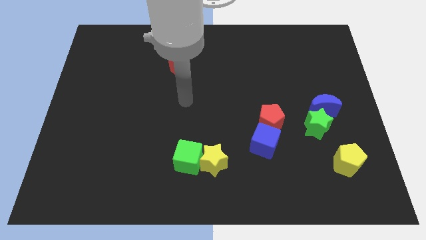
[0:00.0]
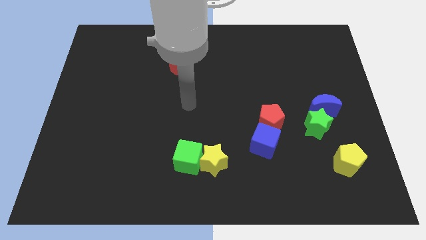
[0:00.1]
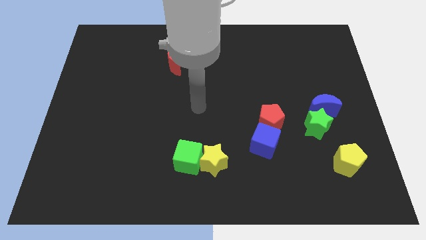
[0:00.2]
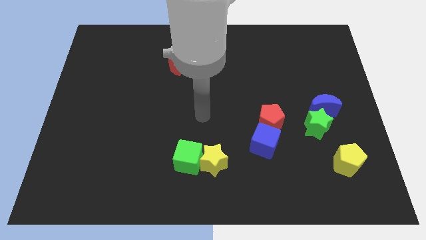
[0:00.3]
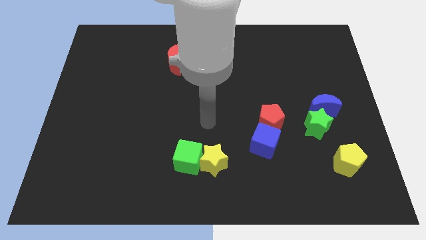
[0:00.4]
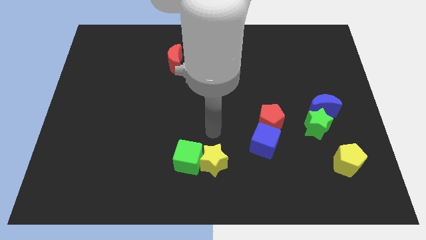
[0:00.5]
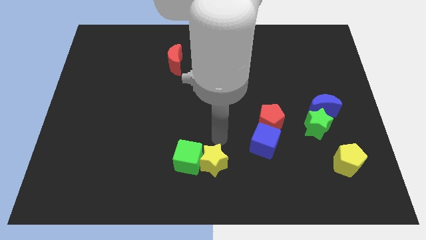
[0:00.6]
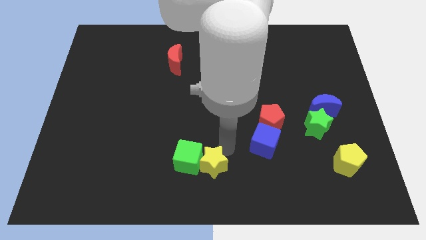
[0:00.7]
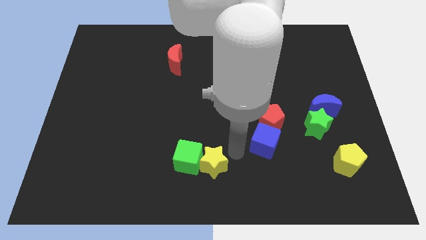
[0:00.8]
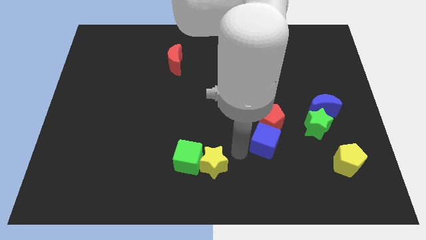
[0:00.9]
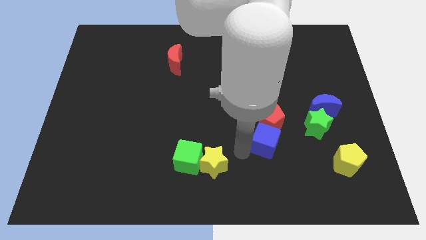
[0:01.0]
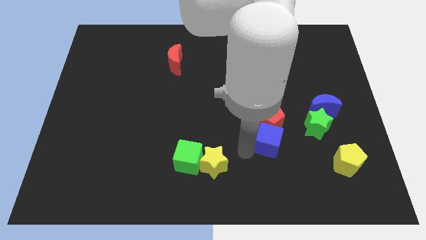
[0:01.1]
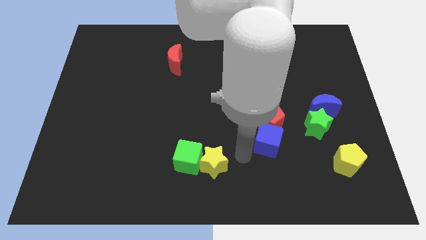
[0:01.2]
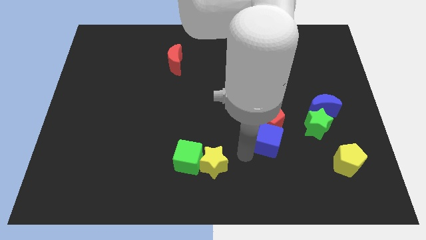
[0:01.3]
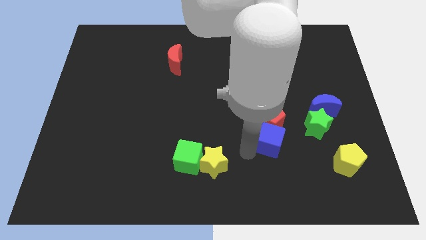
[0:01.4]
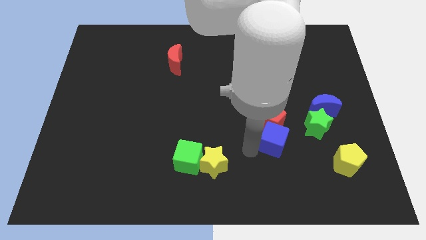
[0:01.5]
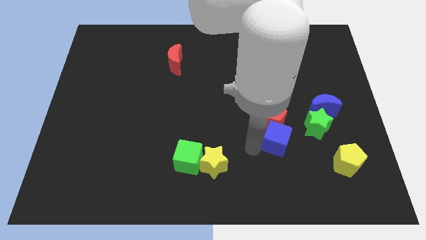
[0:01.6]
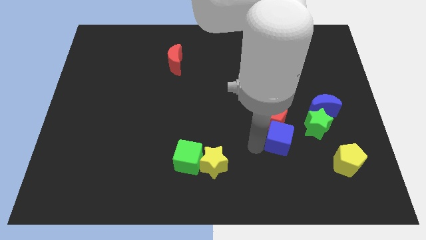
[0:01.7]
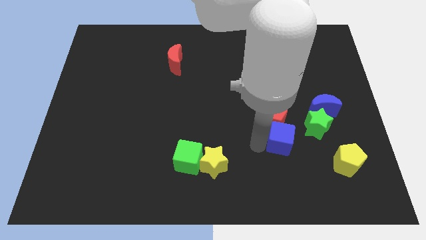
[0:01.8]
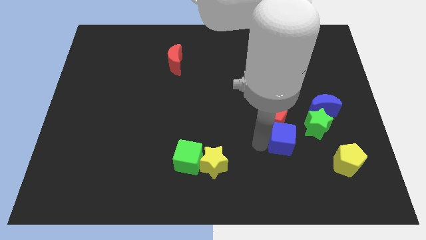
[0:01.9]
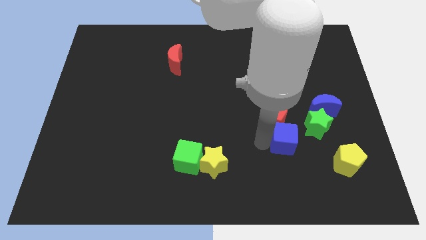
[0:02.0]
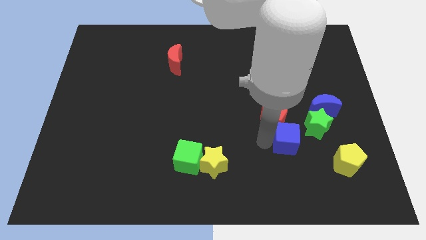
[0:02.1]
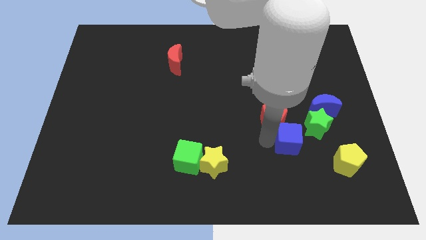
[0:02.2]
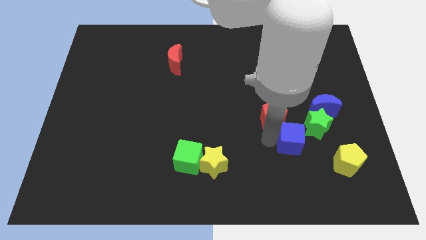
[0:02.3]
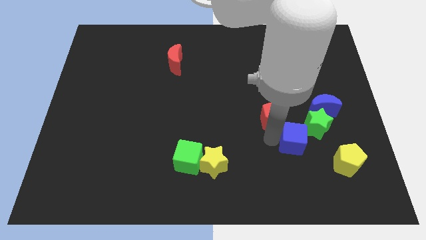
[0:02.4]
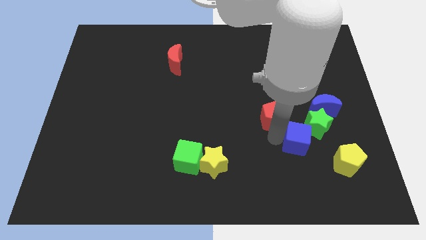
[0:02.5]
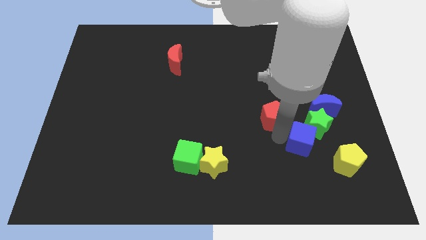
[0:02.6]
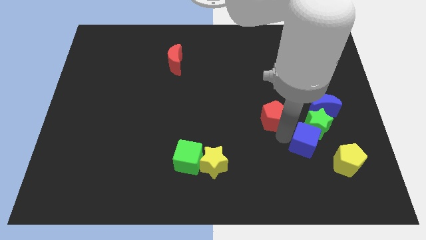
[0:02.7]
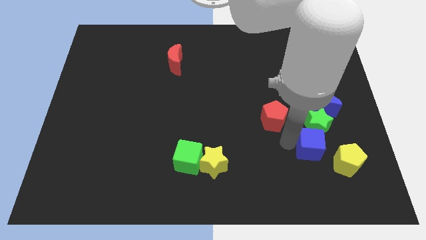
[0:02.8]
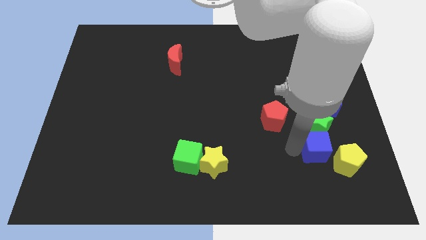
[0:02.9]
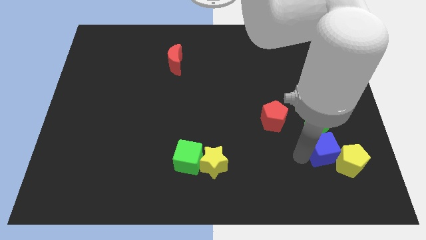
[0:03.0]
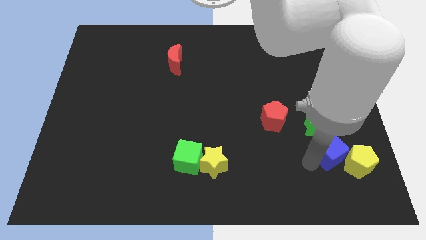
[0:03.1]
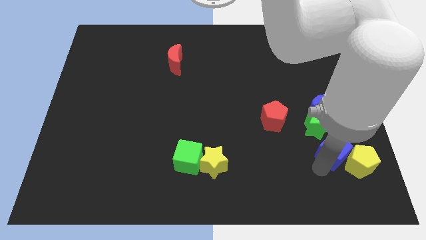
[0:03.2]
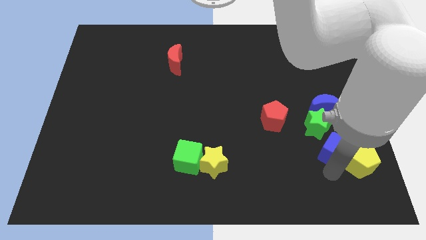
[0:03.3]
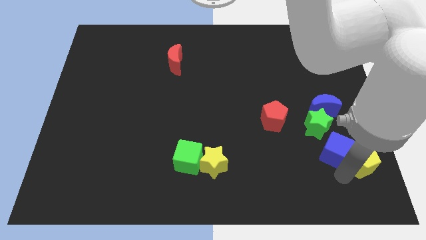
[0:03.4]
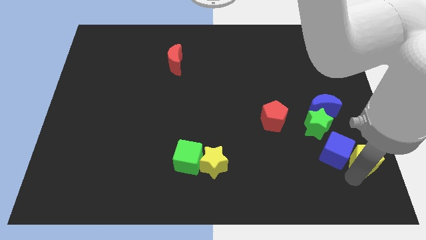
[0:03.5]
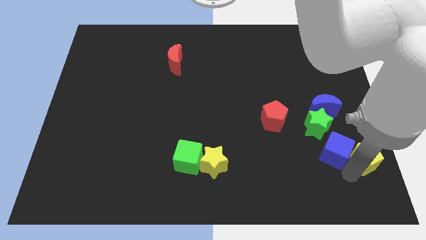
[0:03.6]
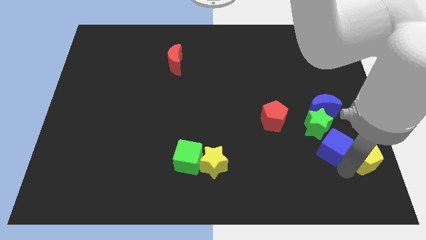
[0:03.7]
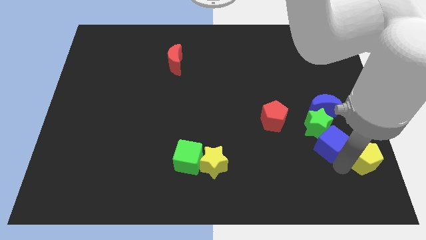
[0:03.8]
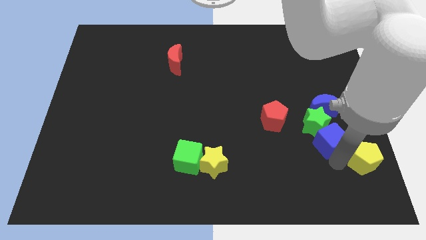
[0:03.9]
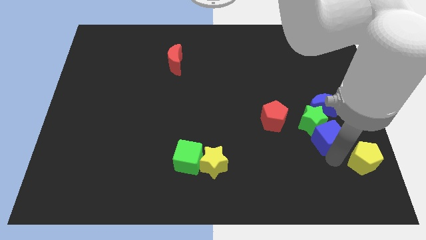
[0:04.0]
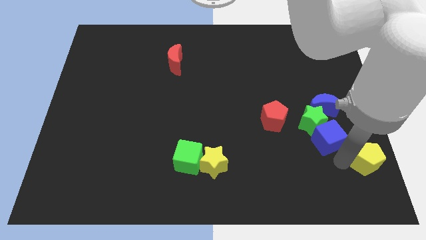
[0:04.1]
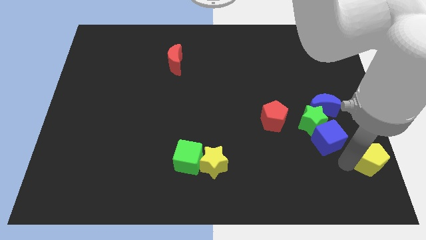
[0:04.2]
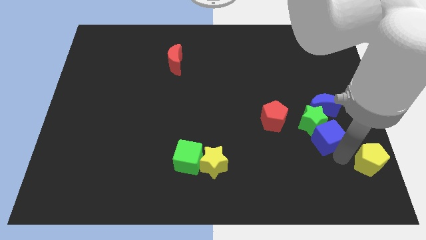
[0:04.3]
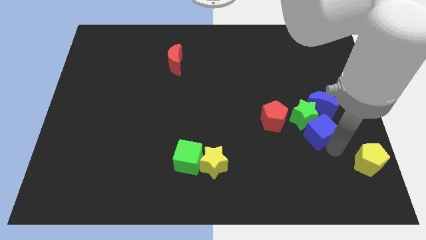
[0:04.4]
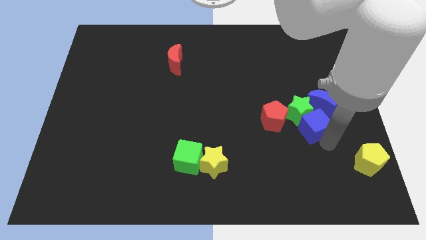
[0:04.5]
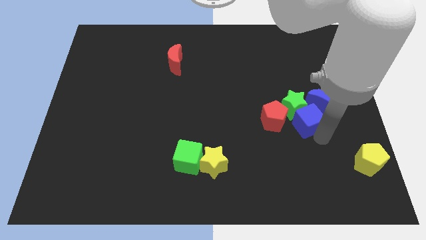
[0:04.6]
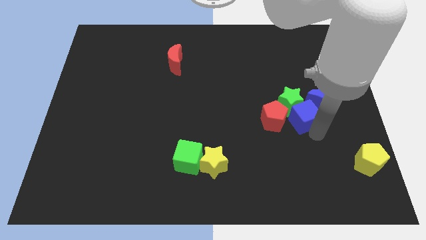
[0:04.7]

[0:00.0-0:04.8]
move the blue cube close to the blue moon

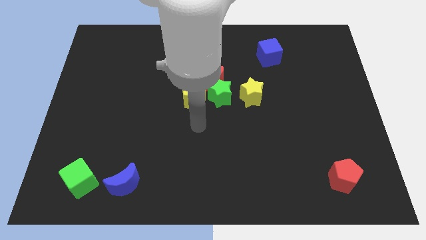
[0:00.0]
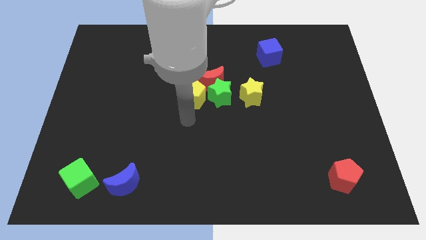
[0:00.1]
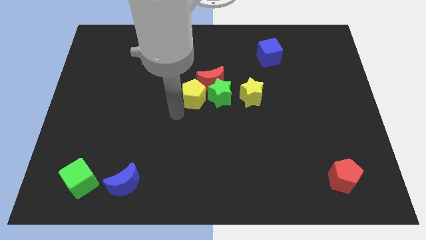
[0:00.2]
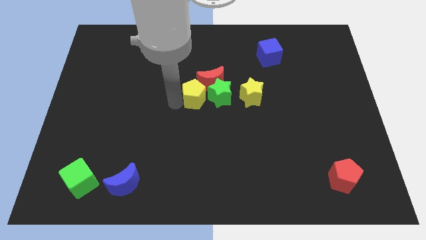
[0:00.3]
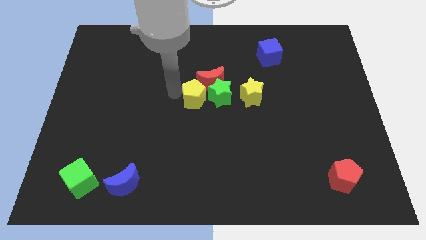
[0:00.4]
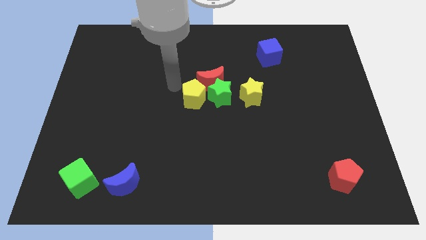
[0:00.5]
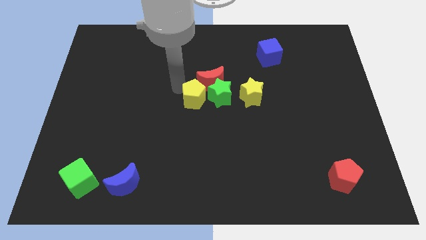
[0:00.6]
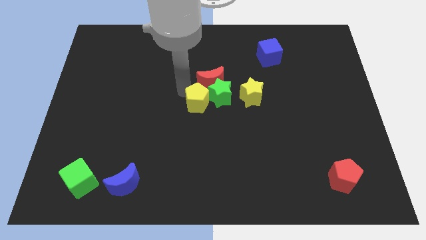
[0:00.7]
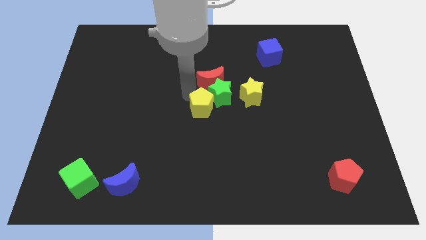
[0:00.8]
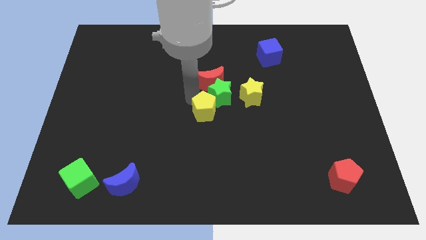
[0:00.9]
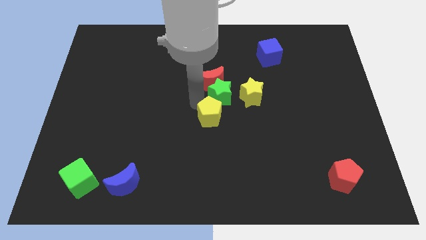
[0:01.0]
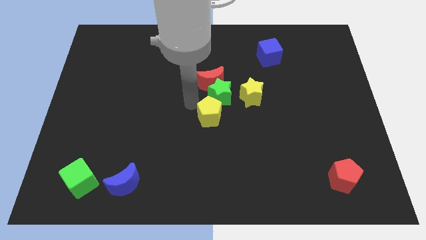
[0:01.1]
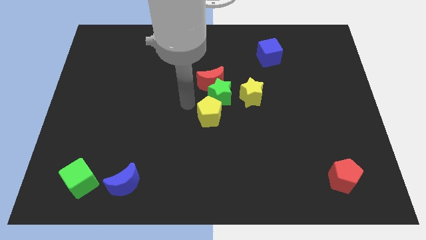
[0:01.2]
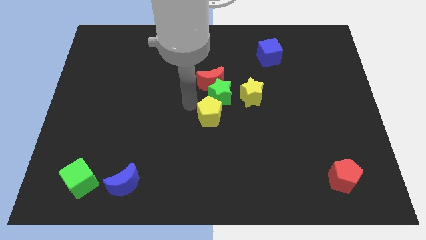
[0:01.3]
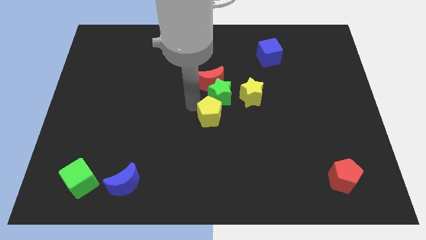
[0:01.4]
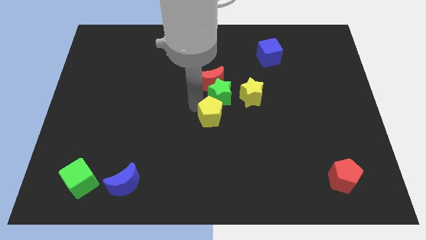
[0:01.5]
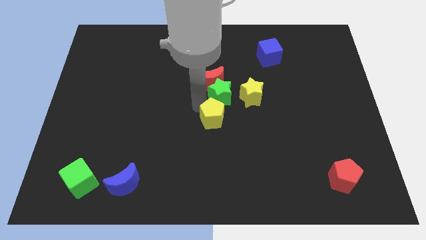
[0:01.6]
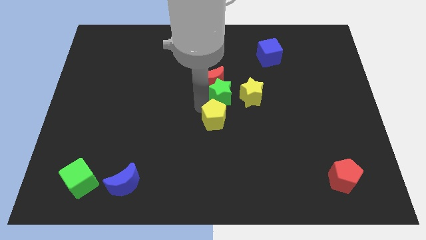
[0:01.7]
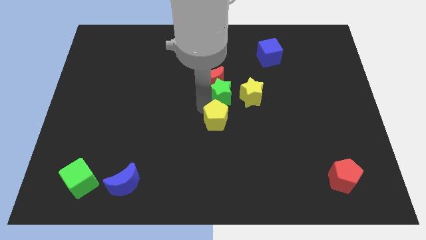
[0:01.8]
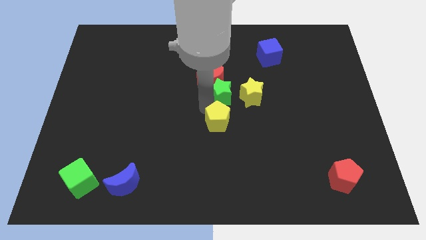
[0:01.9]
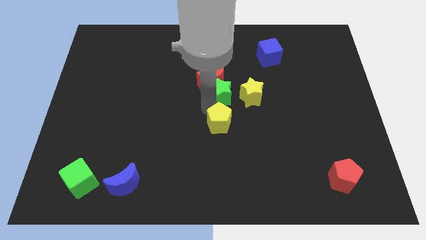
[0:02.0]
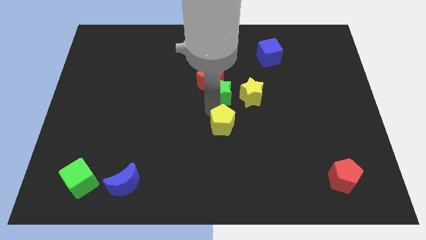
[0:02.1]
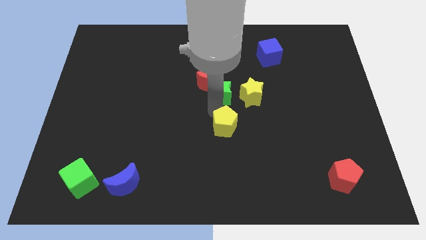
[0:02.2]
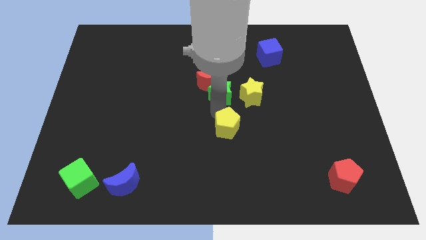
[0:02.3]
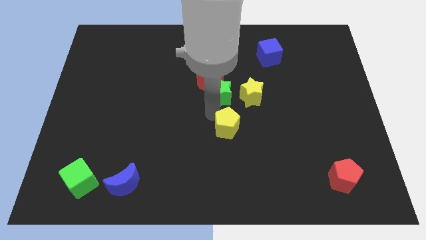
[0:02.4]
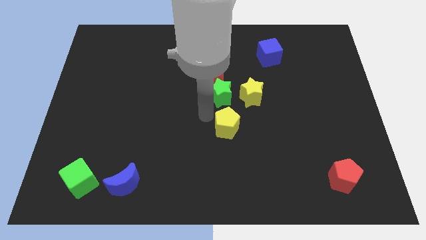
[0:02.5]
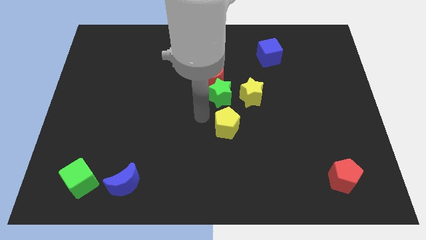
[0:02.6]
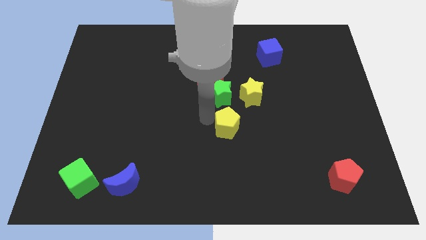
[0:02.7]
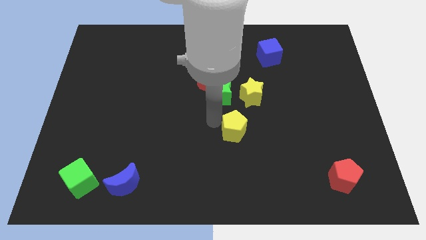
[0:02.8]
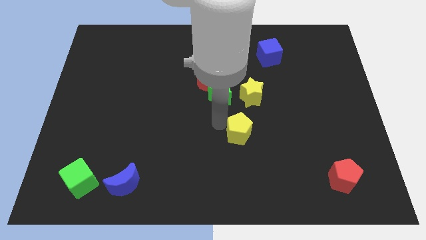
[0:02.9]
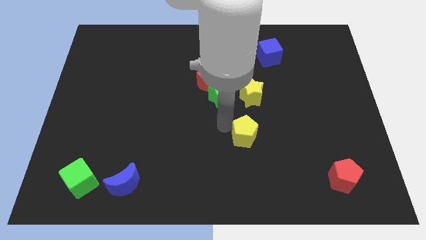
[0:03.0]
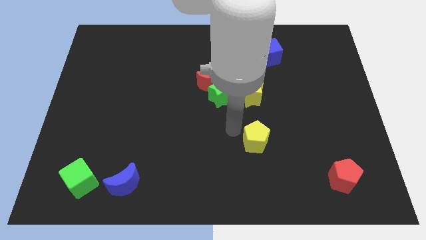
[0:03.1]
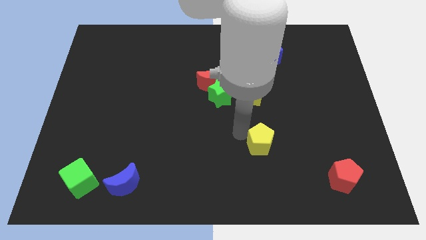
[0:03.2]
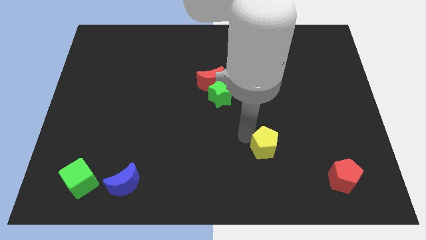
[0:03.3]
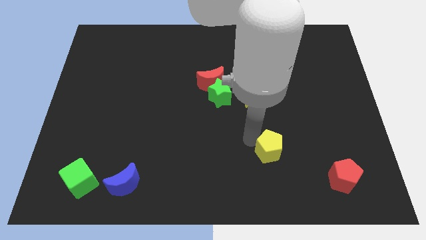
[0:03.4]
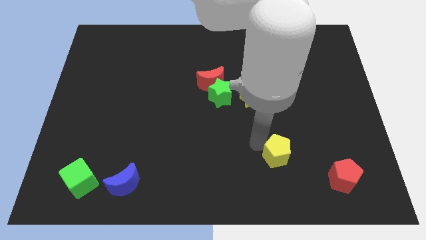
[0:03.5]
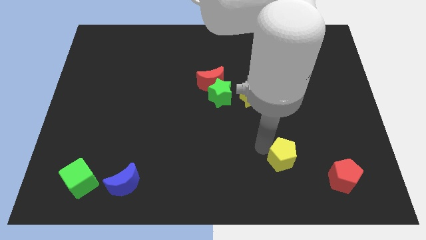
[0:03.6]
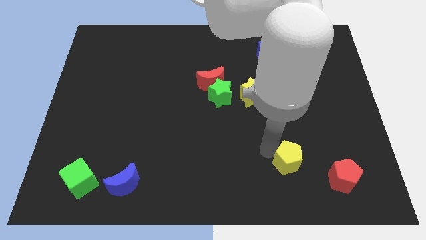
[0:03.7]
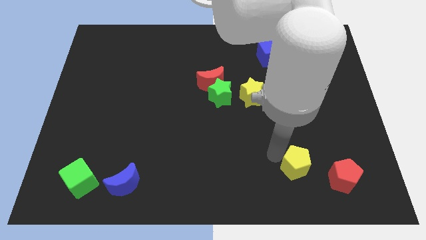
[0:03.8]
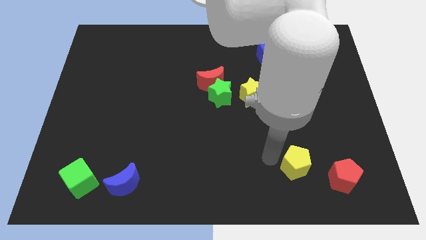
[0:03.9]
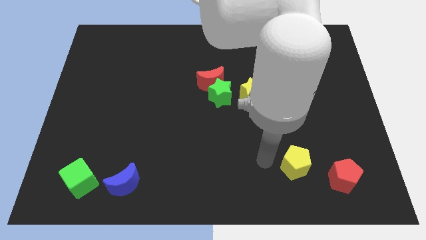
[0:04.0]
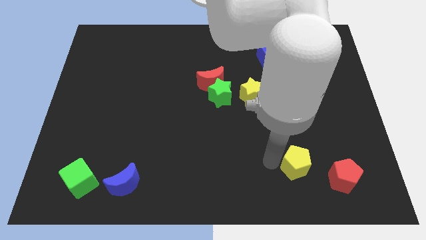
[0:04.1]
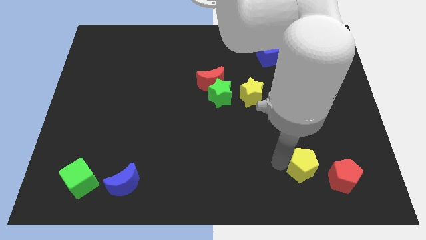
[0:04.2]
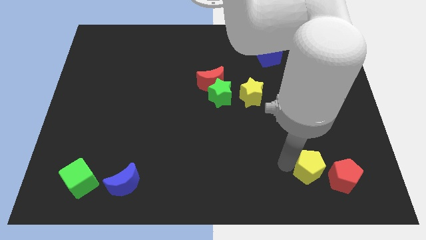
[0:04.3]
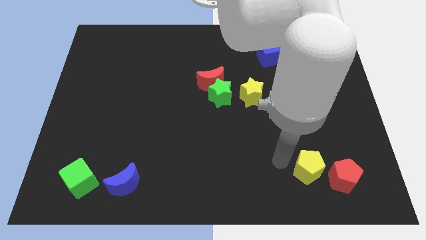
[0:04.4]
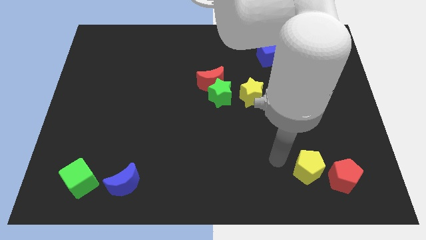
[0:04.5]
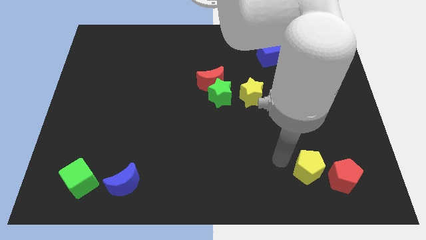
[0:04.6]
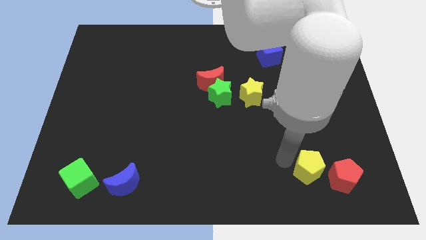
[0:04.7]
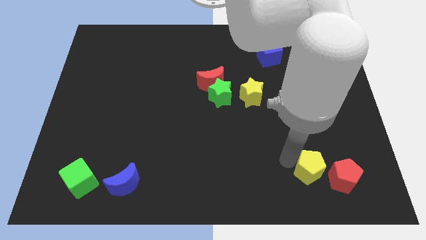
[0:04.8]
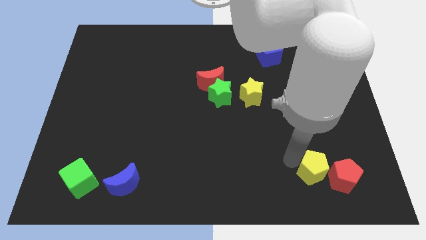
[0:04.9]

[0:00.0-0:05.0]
put the yellow pentagon next to the red pentagon
